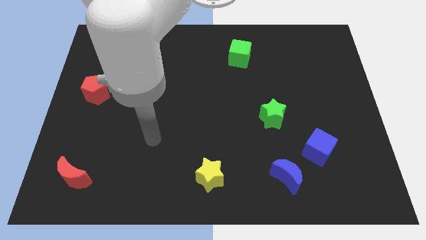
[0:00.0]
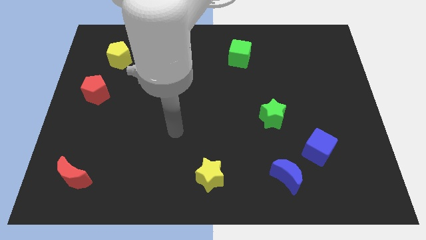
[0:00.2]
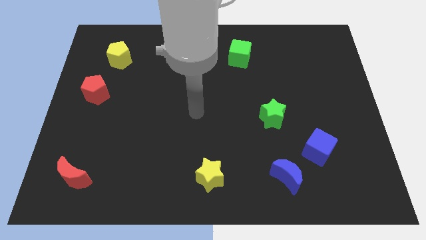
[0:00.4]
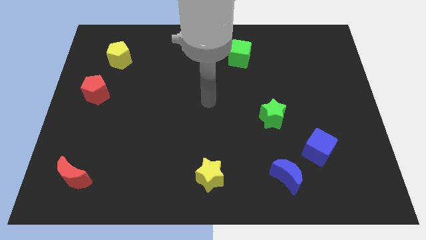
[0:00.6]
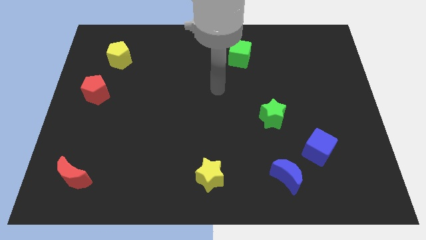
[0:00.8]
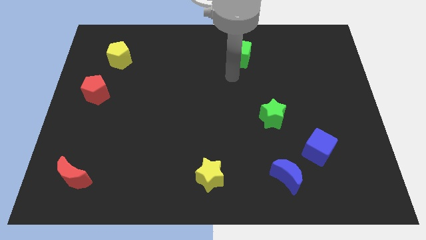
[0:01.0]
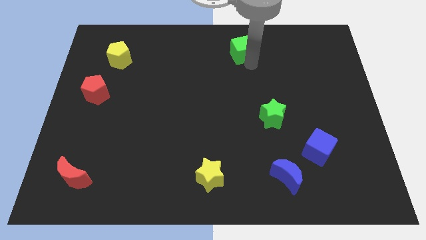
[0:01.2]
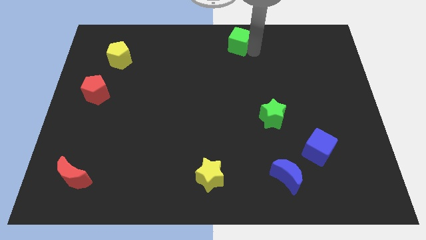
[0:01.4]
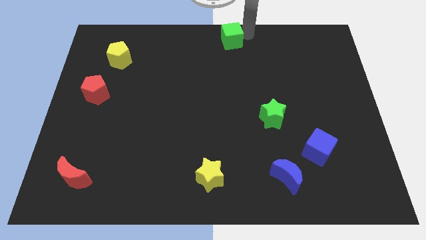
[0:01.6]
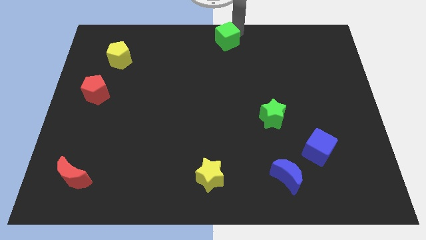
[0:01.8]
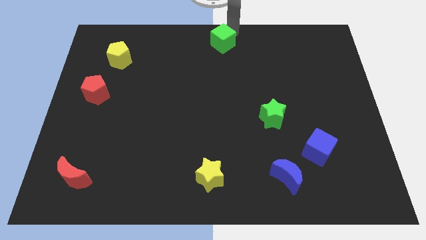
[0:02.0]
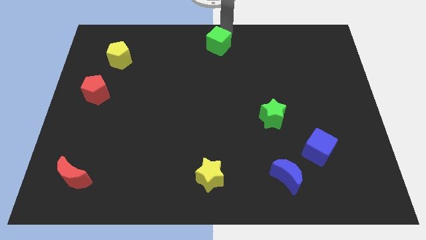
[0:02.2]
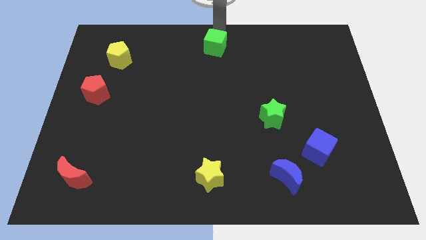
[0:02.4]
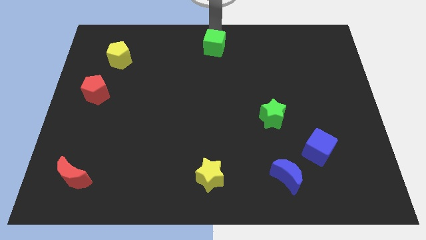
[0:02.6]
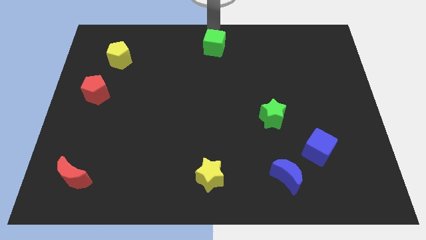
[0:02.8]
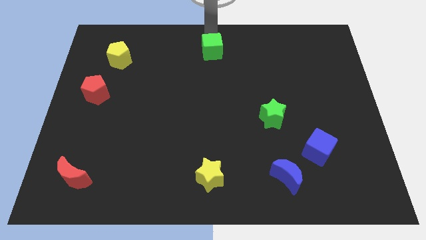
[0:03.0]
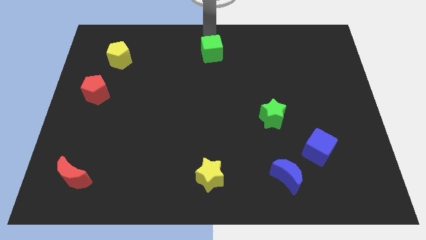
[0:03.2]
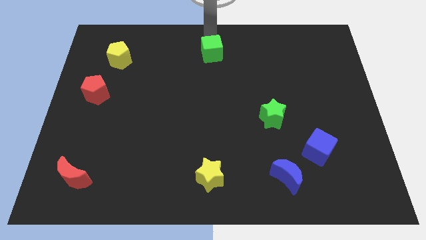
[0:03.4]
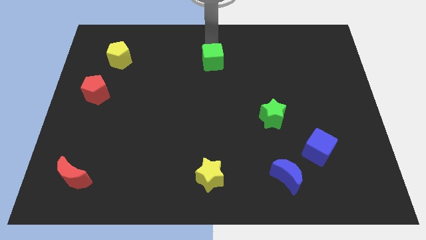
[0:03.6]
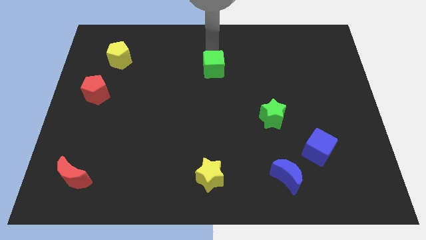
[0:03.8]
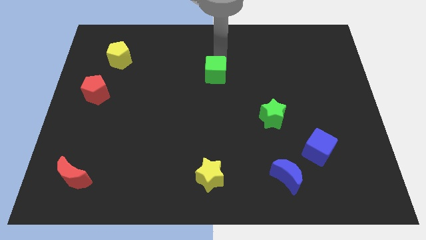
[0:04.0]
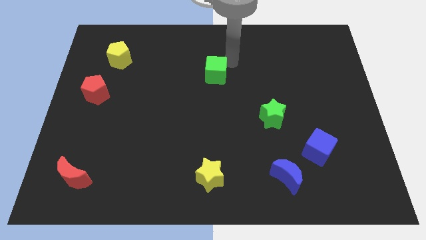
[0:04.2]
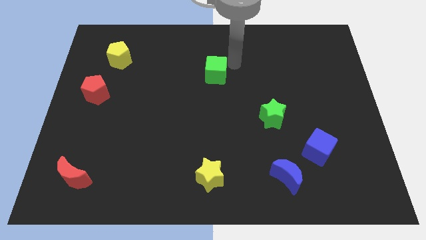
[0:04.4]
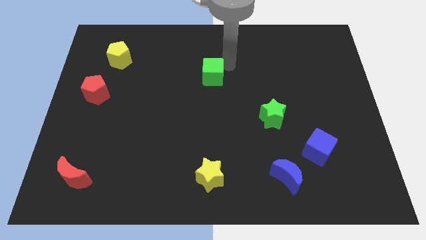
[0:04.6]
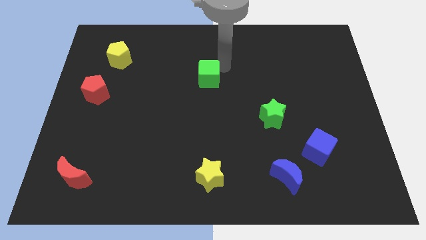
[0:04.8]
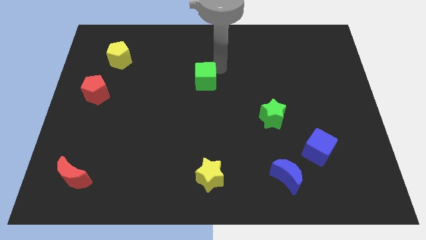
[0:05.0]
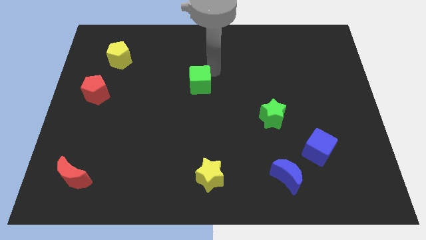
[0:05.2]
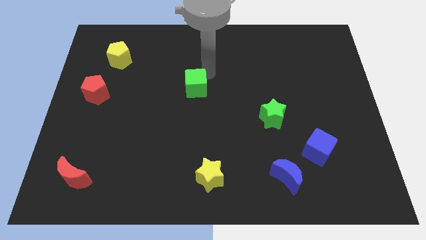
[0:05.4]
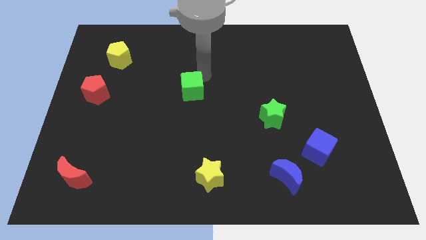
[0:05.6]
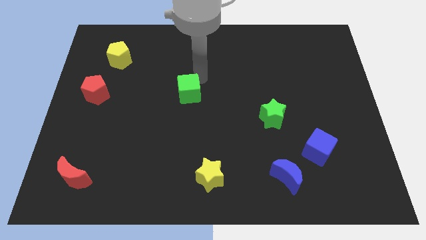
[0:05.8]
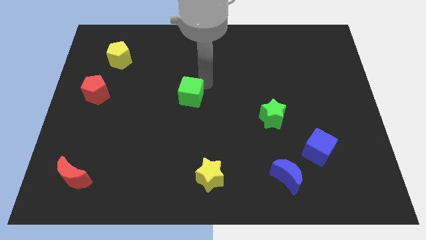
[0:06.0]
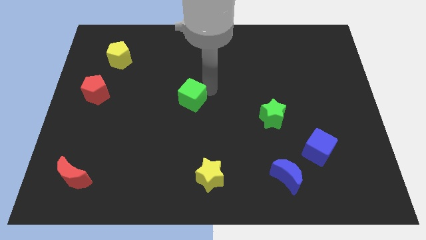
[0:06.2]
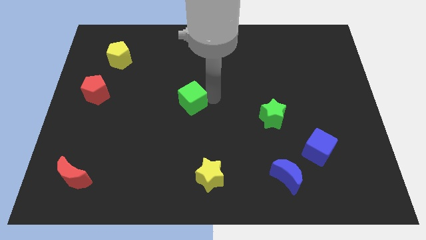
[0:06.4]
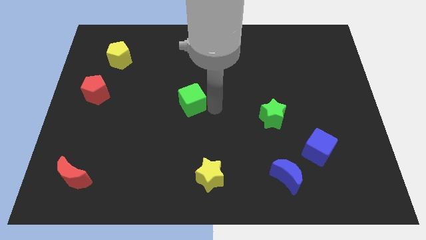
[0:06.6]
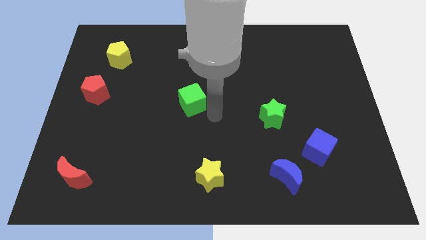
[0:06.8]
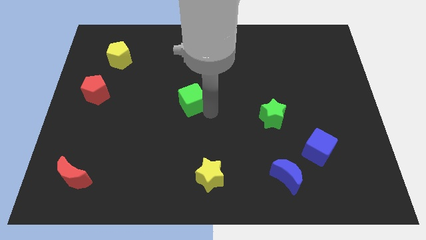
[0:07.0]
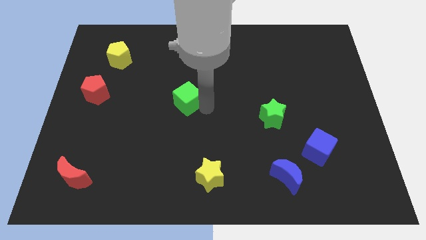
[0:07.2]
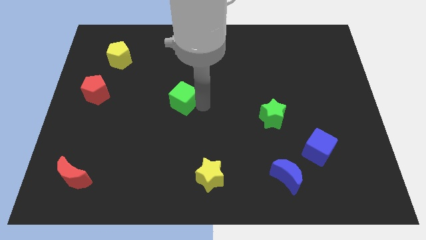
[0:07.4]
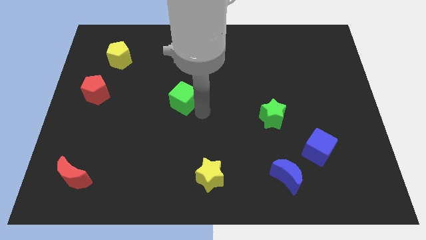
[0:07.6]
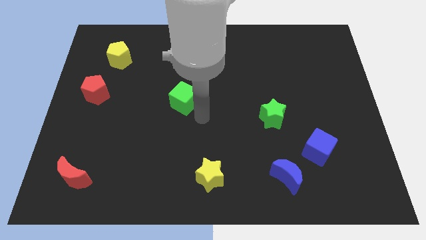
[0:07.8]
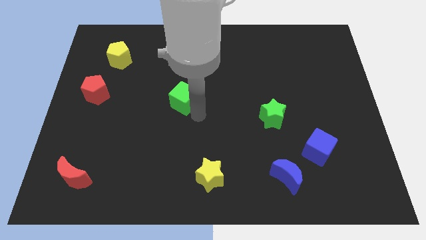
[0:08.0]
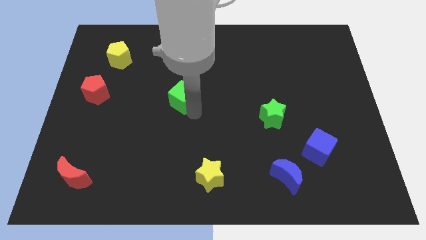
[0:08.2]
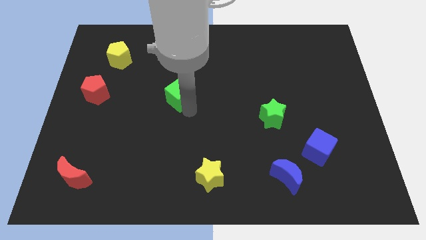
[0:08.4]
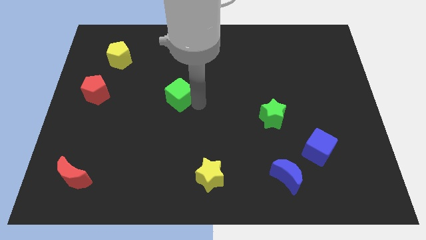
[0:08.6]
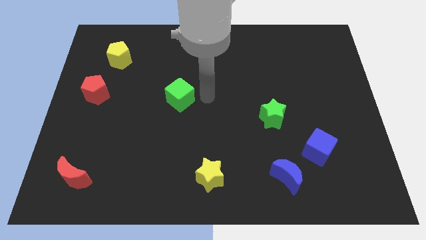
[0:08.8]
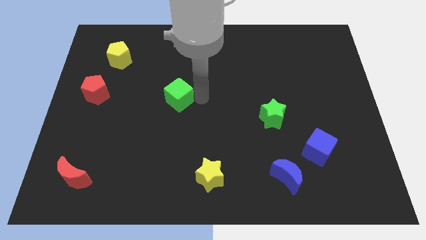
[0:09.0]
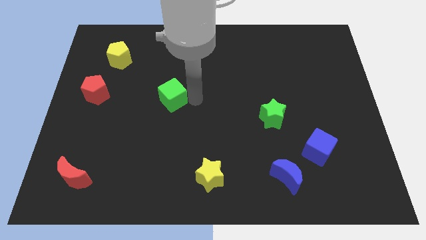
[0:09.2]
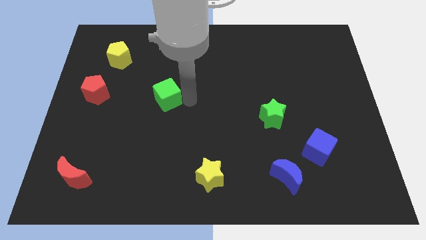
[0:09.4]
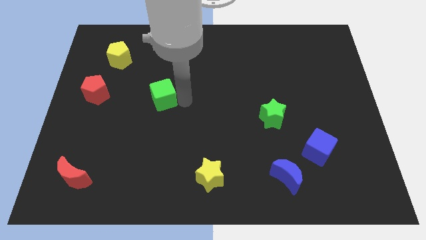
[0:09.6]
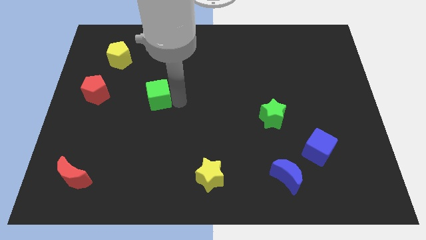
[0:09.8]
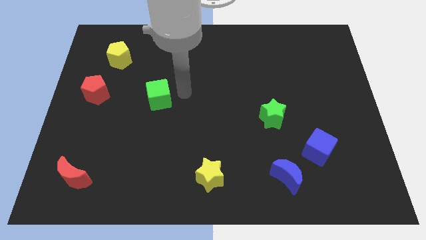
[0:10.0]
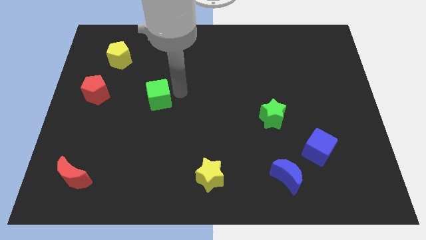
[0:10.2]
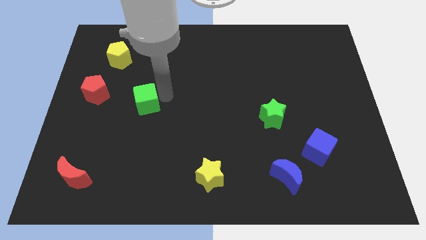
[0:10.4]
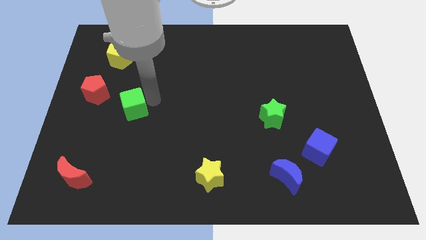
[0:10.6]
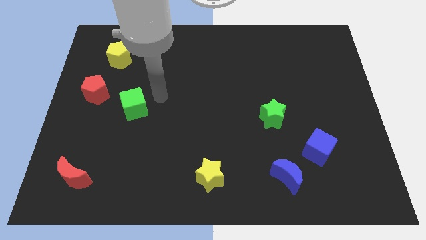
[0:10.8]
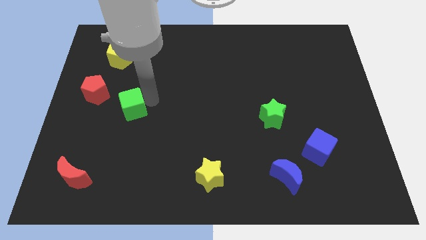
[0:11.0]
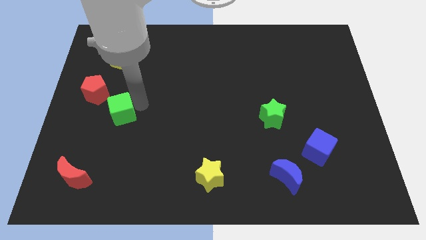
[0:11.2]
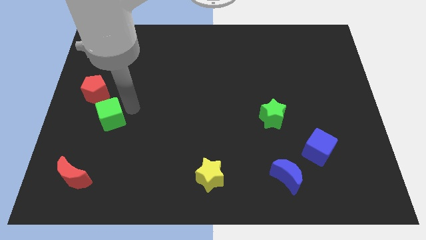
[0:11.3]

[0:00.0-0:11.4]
push the green cube to the bottom of the red pentagon

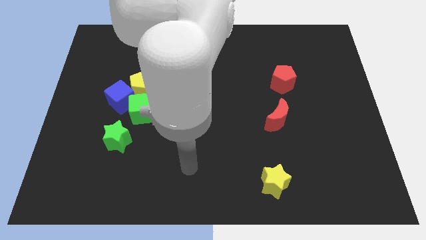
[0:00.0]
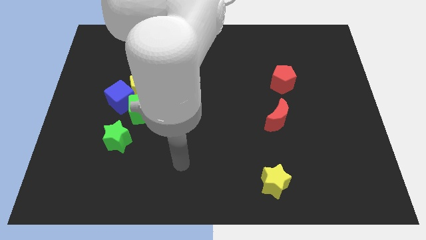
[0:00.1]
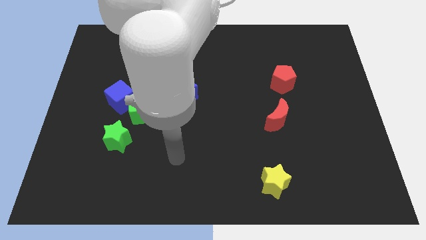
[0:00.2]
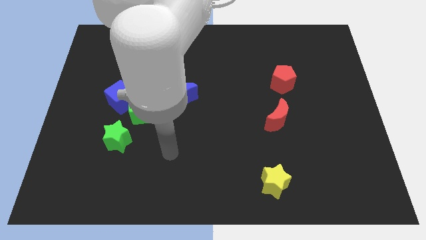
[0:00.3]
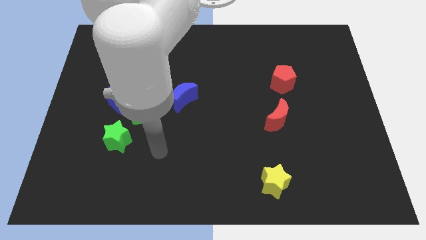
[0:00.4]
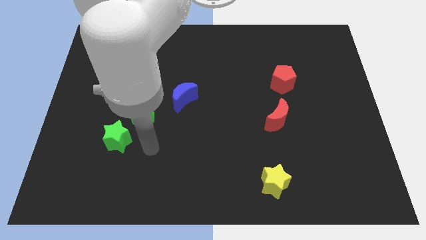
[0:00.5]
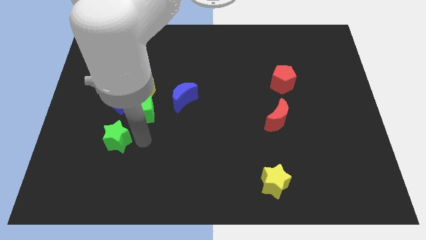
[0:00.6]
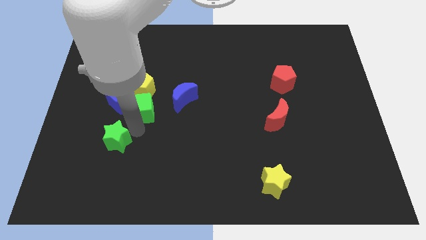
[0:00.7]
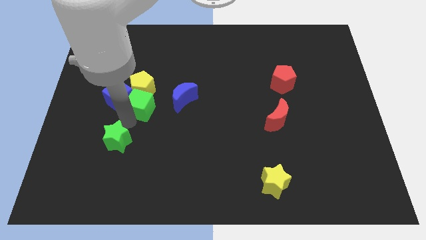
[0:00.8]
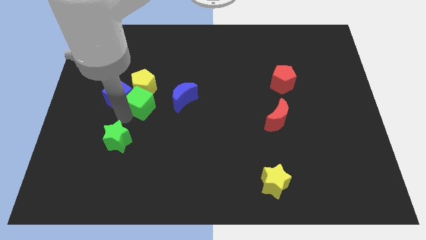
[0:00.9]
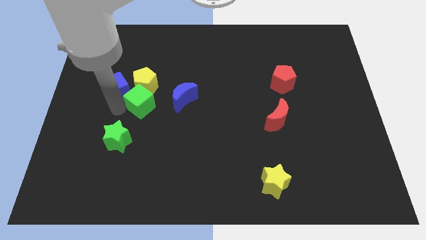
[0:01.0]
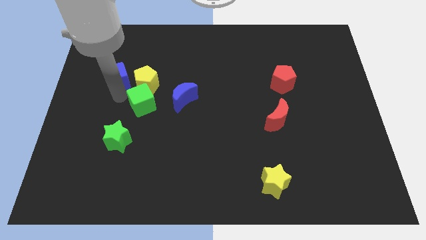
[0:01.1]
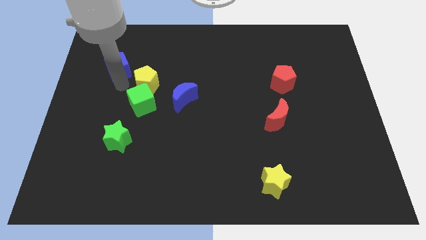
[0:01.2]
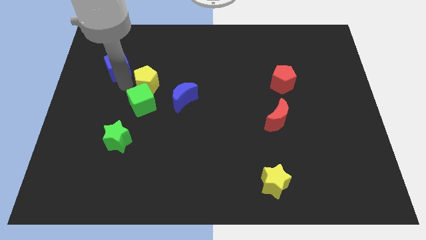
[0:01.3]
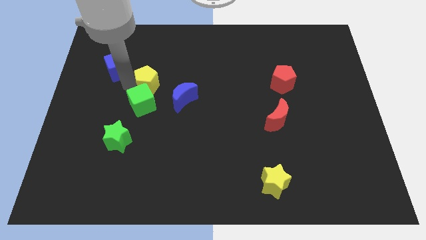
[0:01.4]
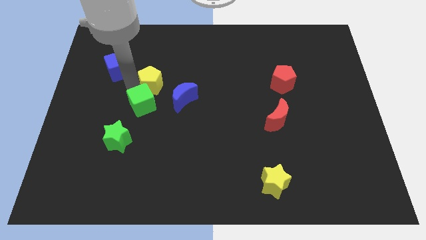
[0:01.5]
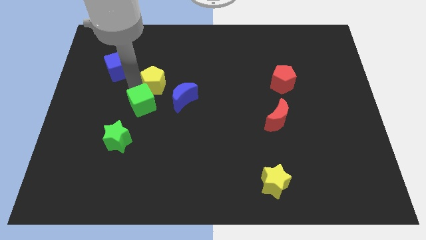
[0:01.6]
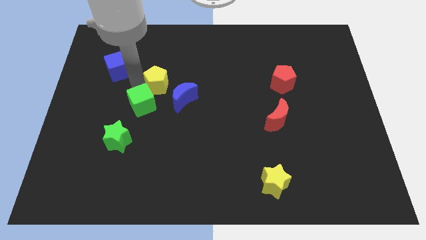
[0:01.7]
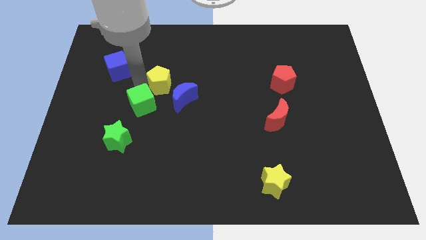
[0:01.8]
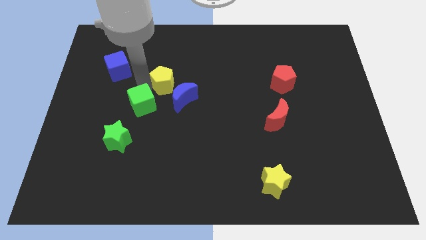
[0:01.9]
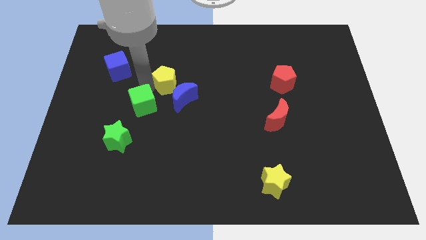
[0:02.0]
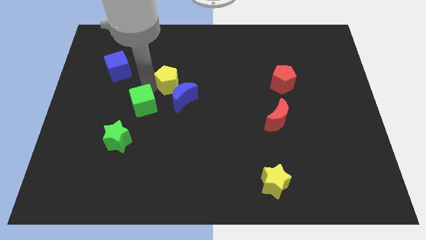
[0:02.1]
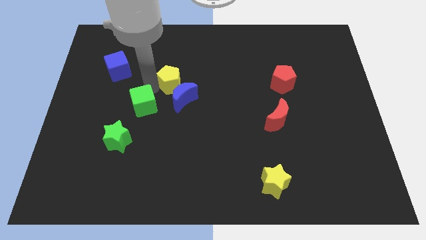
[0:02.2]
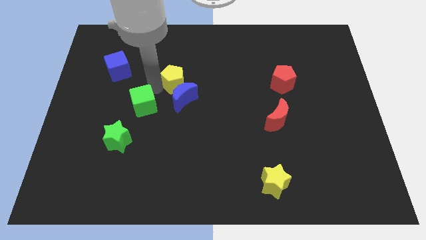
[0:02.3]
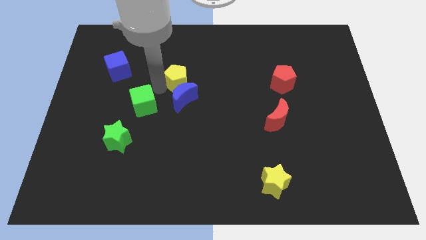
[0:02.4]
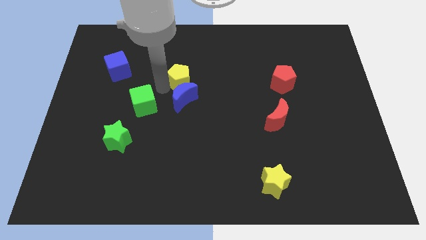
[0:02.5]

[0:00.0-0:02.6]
move the yellow pentagon diagonally up and to the right of the blue moon
